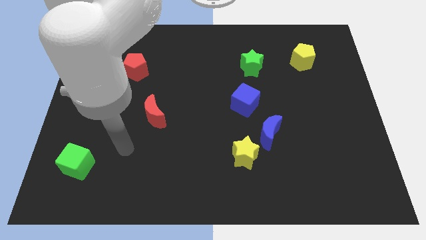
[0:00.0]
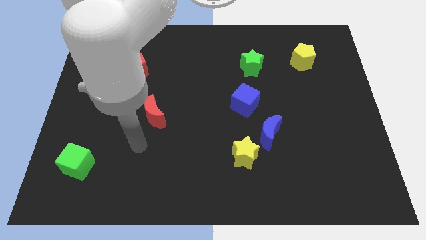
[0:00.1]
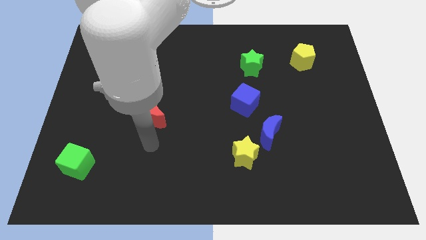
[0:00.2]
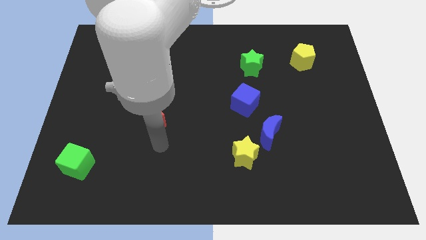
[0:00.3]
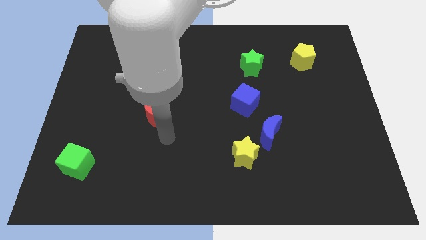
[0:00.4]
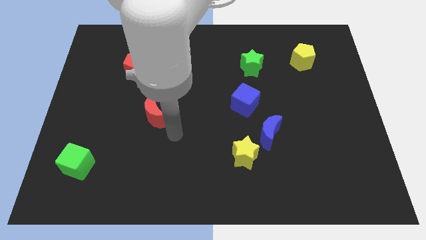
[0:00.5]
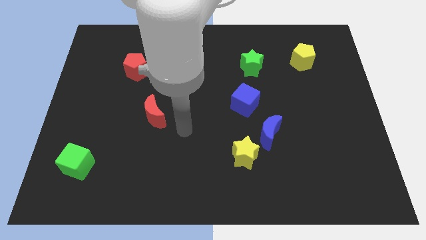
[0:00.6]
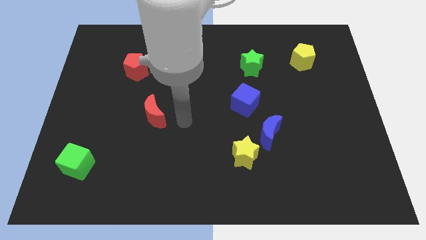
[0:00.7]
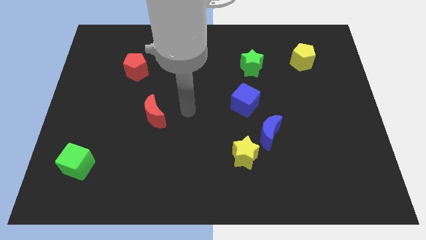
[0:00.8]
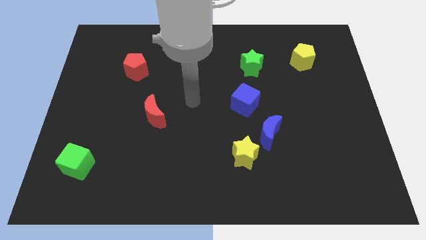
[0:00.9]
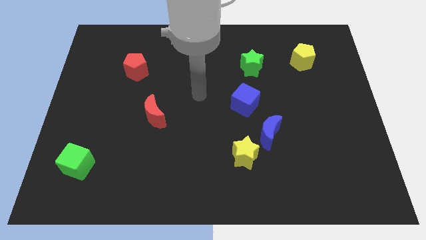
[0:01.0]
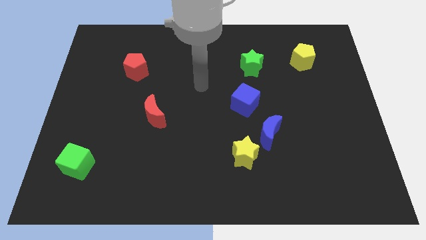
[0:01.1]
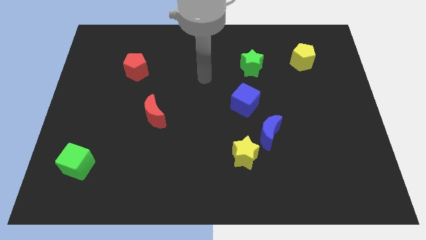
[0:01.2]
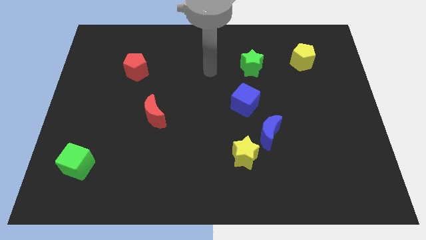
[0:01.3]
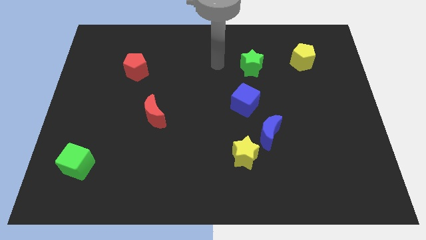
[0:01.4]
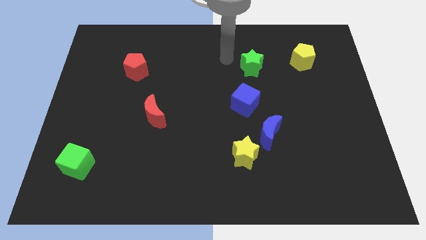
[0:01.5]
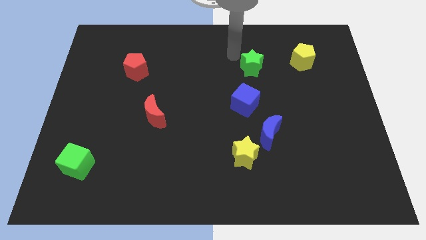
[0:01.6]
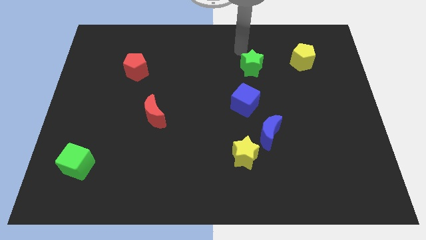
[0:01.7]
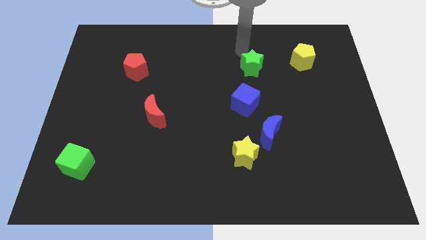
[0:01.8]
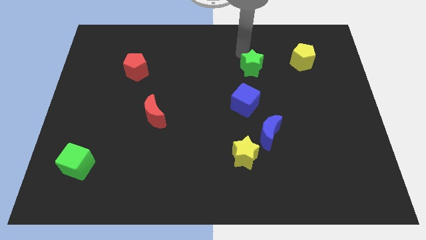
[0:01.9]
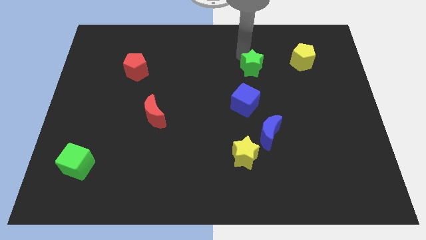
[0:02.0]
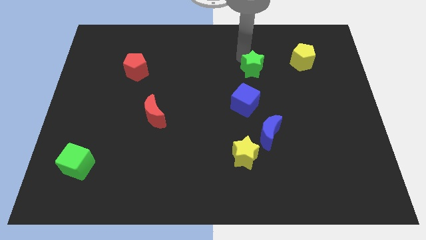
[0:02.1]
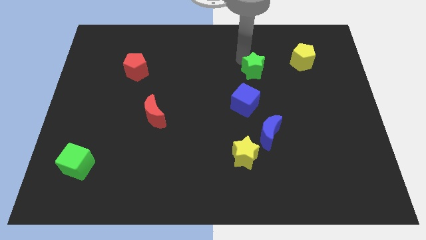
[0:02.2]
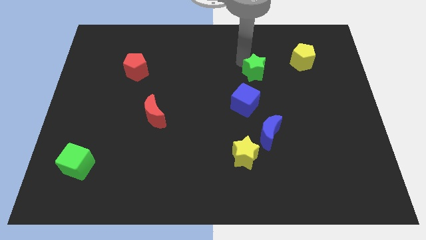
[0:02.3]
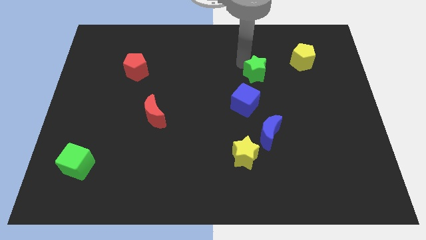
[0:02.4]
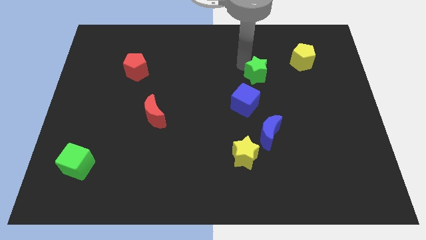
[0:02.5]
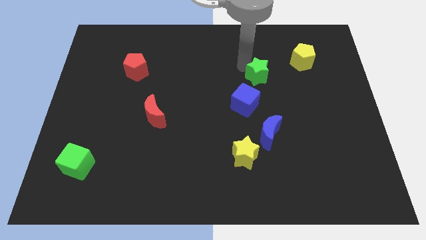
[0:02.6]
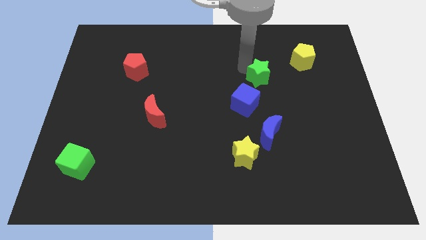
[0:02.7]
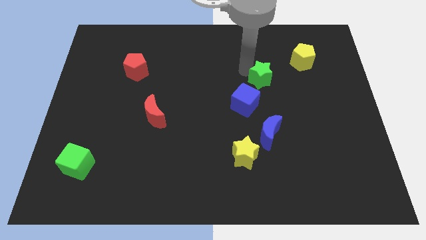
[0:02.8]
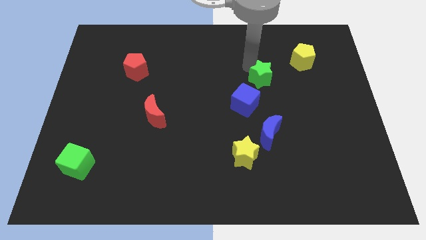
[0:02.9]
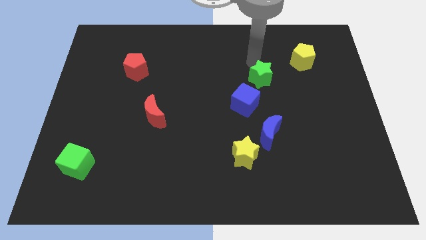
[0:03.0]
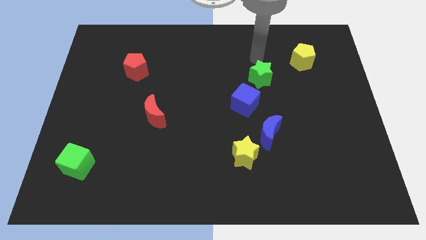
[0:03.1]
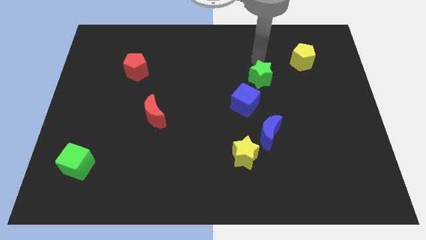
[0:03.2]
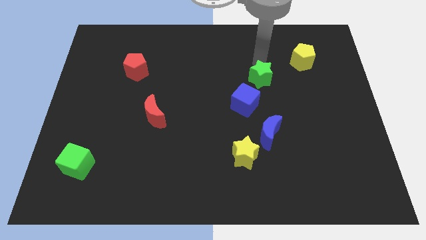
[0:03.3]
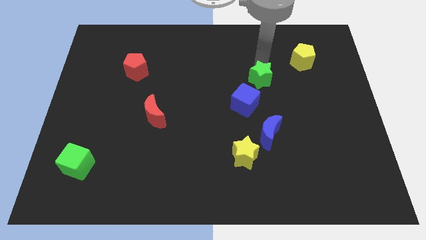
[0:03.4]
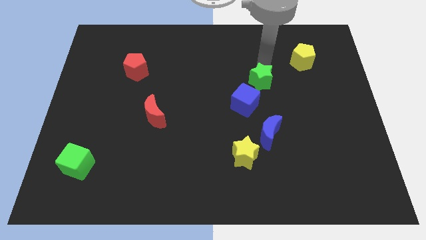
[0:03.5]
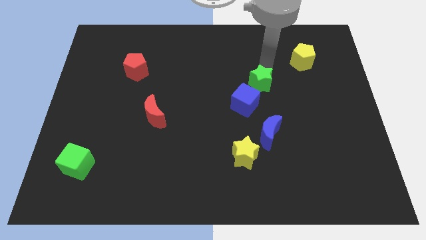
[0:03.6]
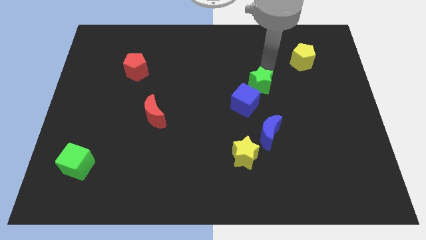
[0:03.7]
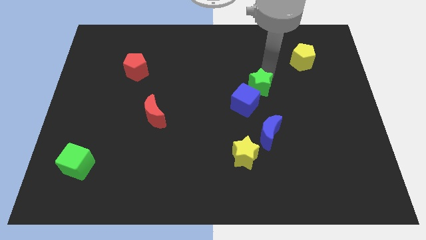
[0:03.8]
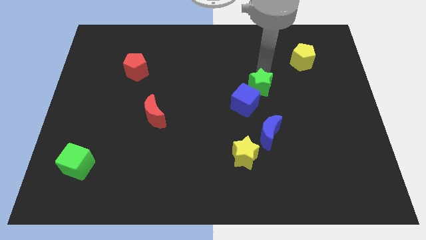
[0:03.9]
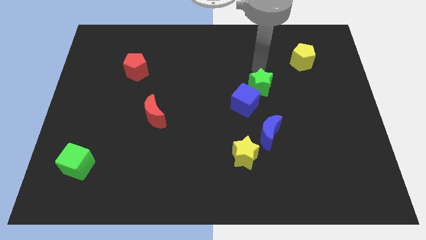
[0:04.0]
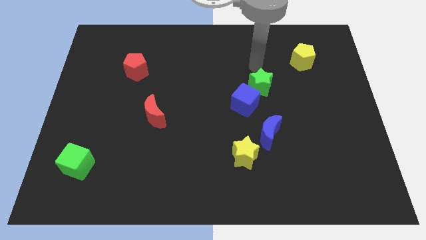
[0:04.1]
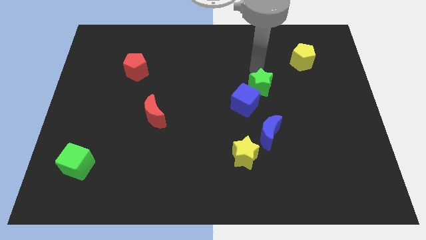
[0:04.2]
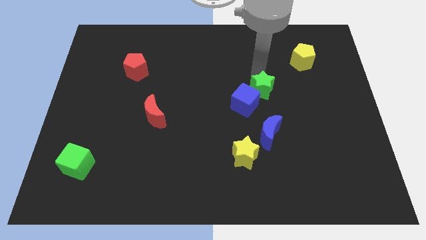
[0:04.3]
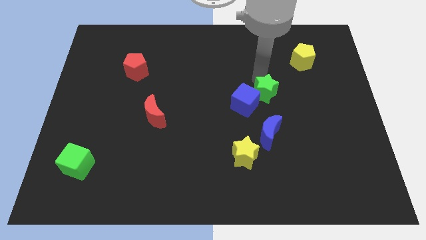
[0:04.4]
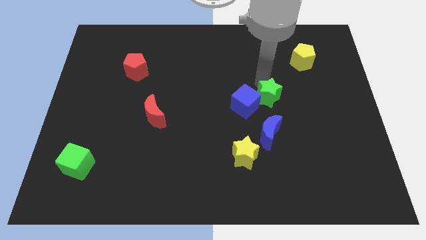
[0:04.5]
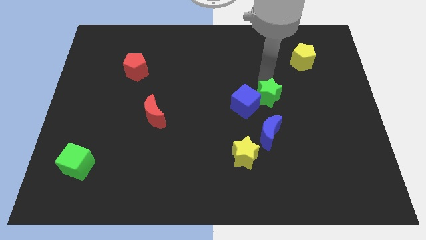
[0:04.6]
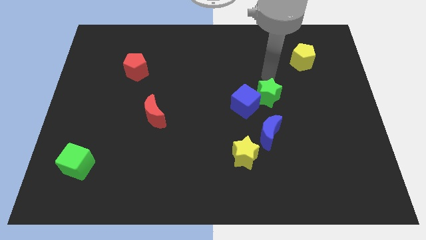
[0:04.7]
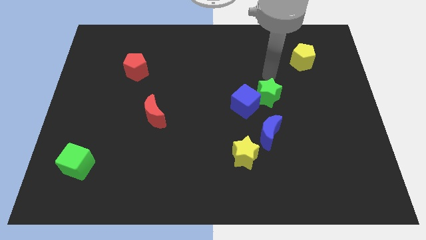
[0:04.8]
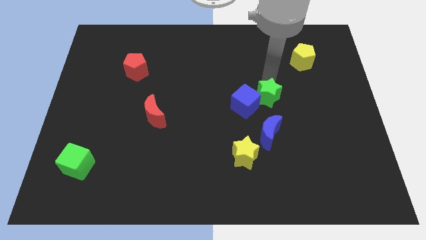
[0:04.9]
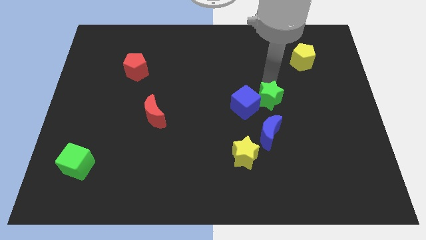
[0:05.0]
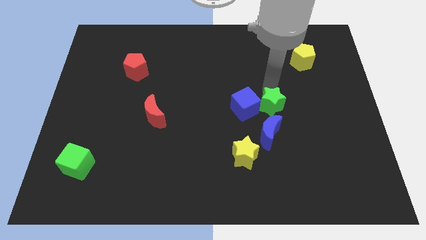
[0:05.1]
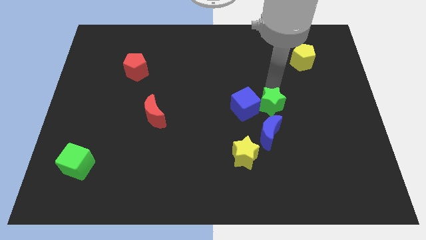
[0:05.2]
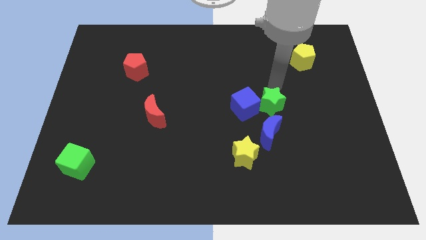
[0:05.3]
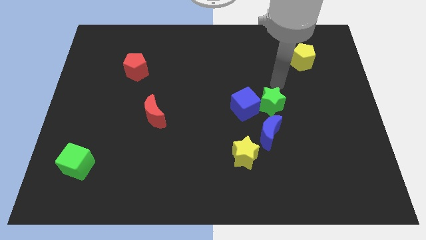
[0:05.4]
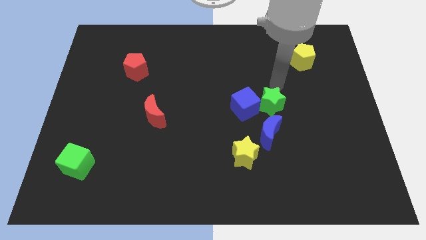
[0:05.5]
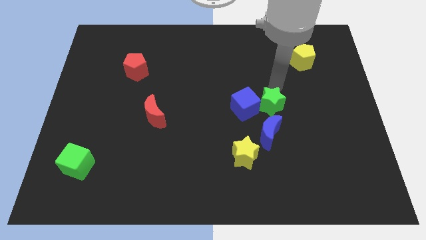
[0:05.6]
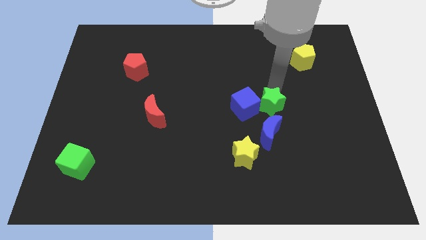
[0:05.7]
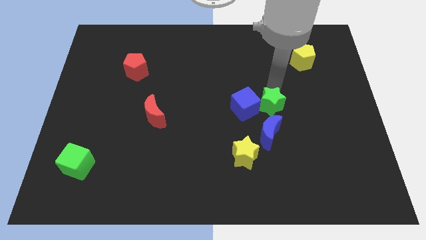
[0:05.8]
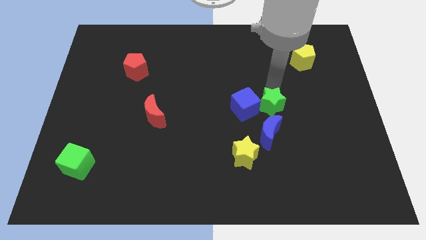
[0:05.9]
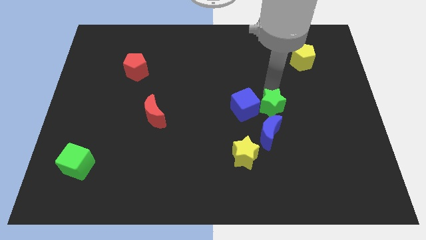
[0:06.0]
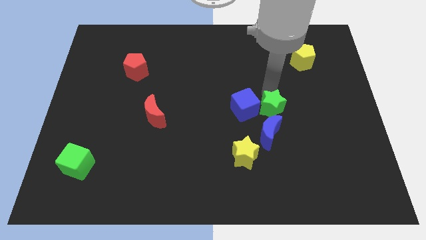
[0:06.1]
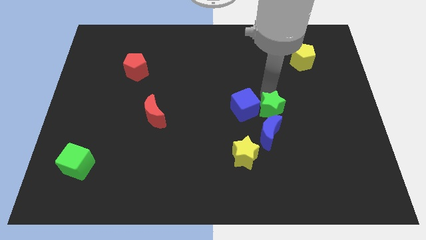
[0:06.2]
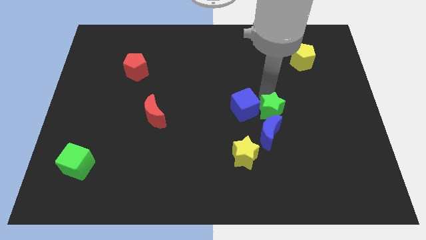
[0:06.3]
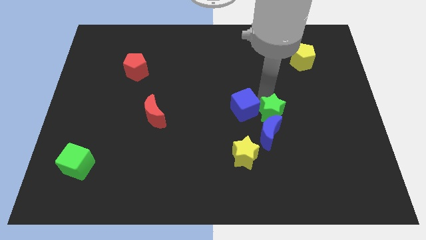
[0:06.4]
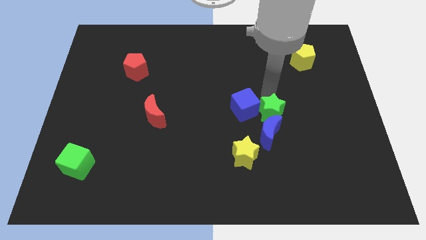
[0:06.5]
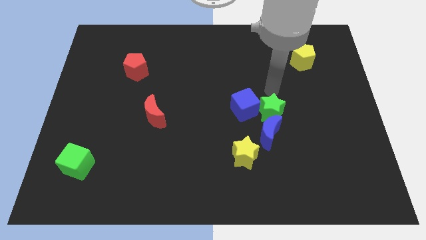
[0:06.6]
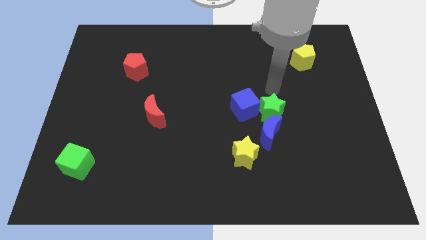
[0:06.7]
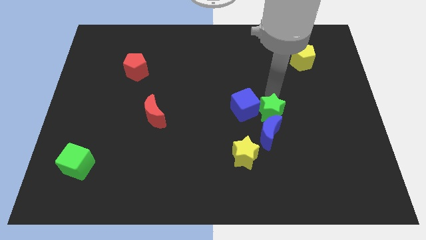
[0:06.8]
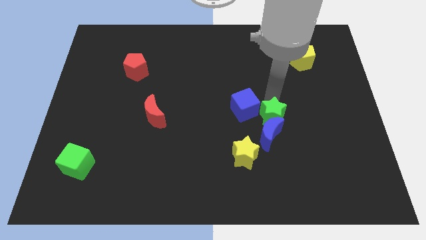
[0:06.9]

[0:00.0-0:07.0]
push the green star towards the blue moon

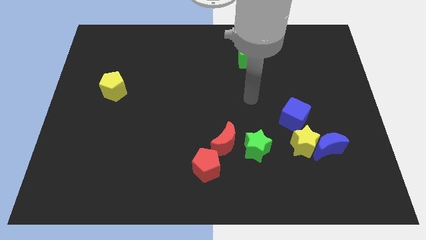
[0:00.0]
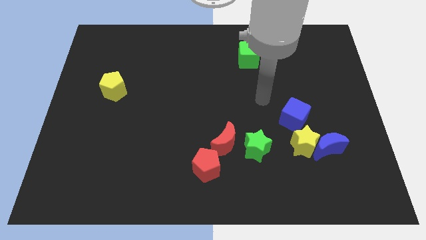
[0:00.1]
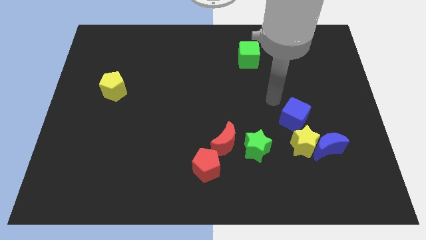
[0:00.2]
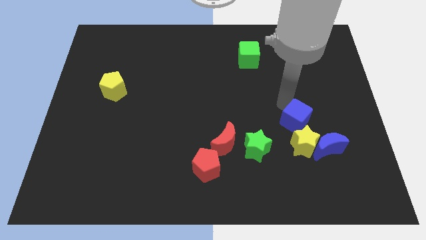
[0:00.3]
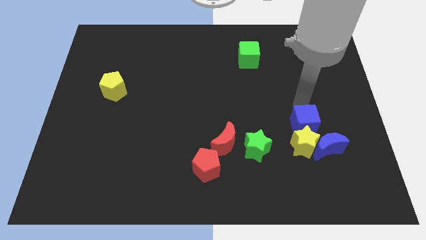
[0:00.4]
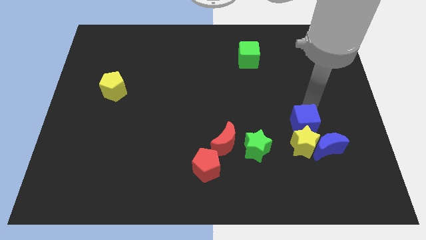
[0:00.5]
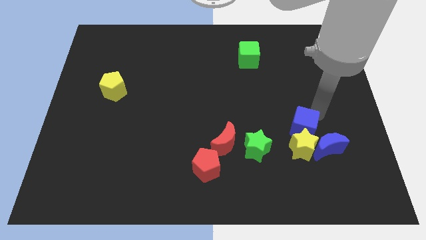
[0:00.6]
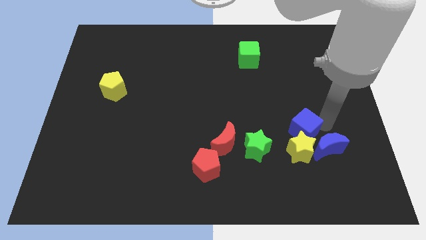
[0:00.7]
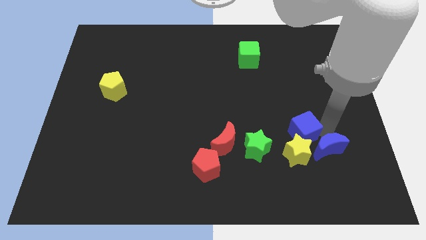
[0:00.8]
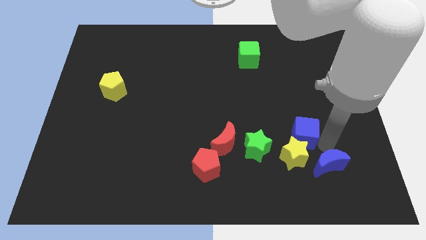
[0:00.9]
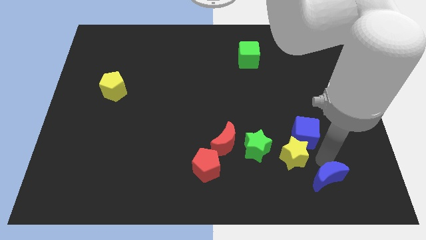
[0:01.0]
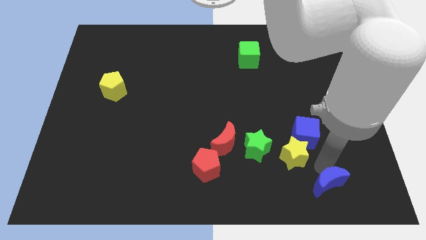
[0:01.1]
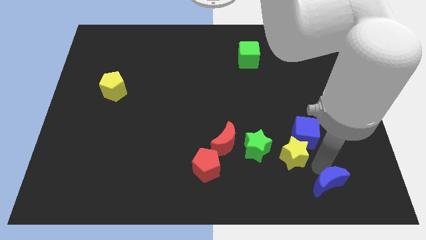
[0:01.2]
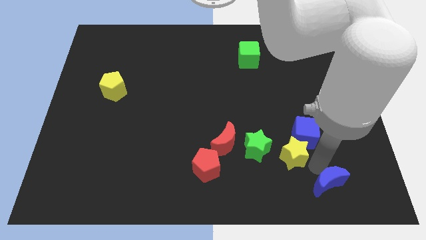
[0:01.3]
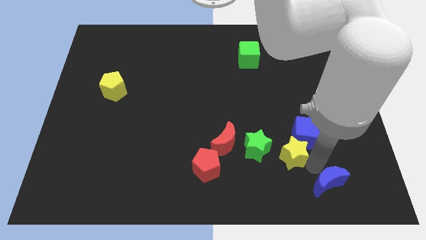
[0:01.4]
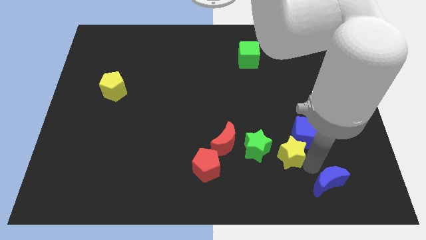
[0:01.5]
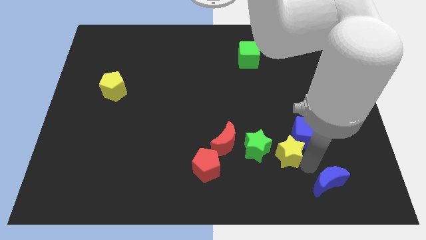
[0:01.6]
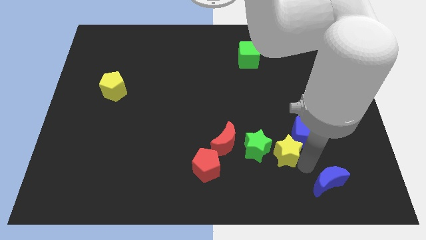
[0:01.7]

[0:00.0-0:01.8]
put the yellow star next to the green star
